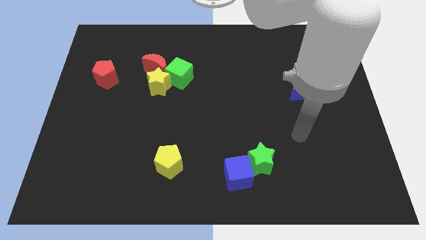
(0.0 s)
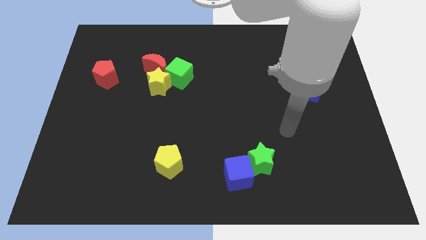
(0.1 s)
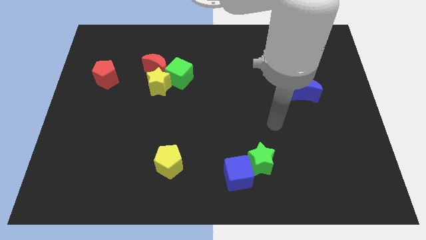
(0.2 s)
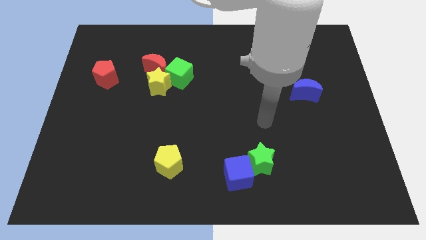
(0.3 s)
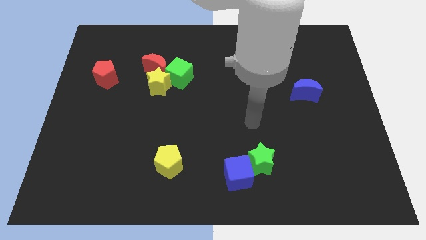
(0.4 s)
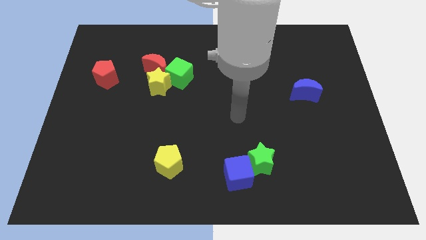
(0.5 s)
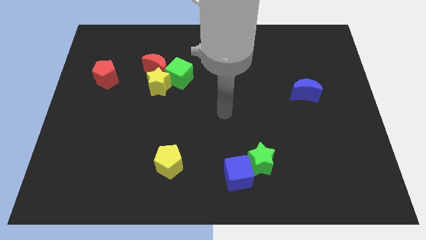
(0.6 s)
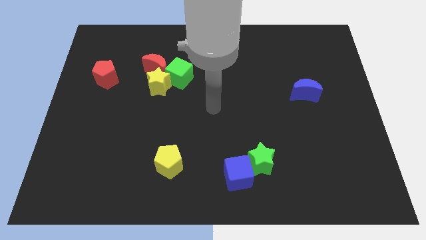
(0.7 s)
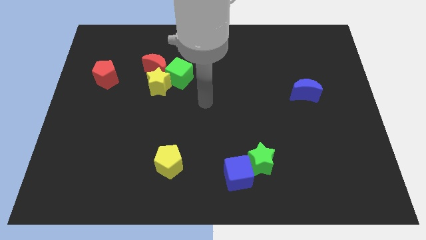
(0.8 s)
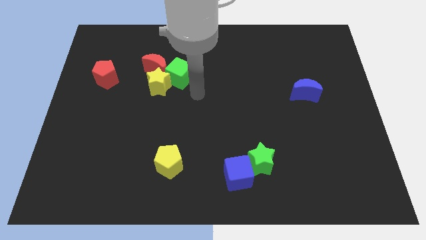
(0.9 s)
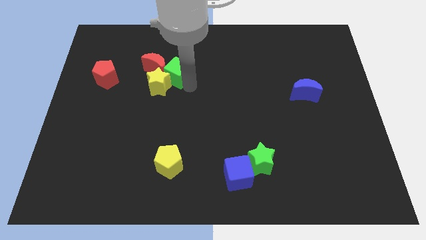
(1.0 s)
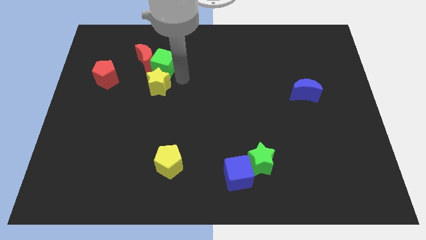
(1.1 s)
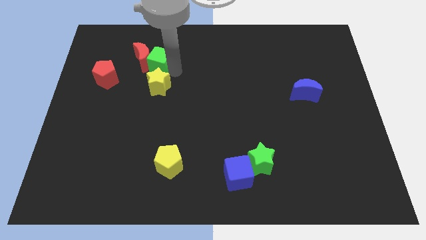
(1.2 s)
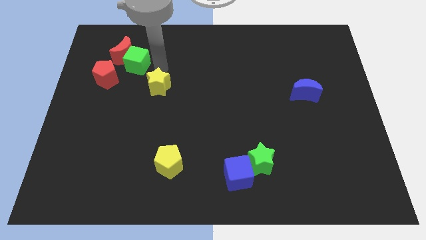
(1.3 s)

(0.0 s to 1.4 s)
separate the yellow star from the green cube and red moon

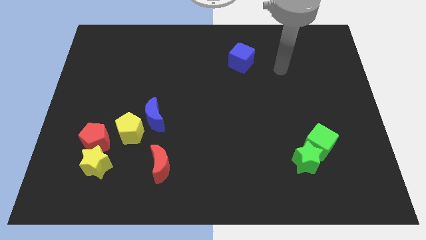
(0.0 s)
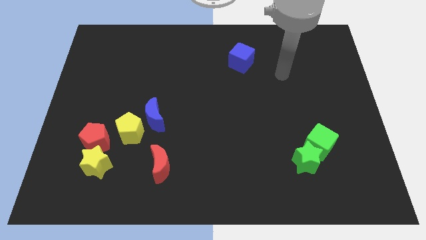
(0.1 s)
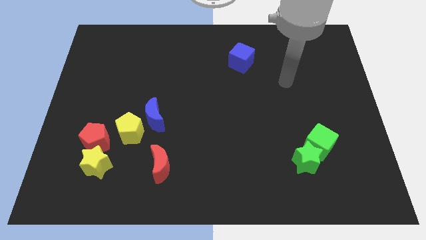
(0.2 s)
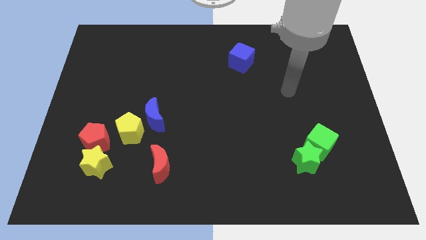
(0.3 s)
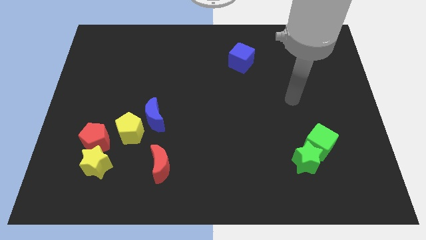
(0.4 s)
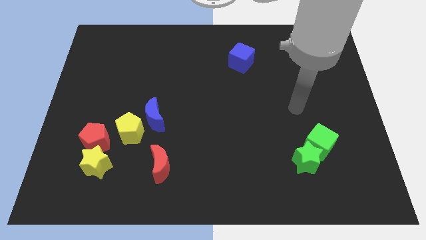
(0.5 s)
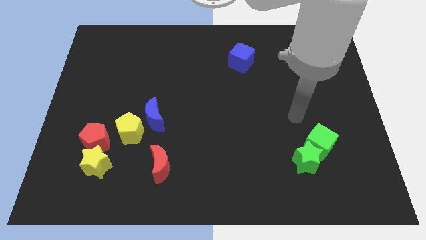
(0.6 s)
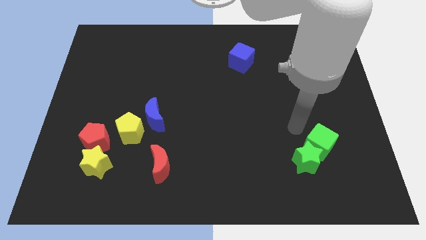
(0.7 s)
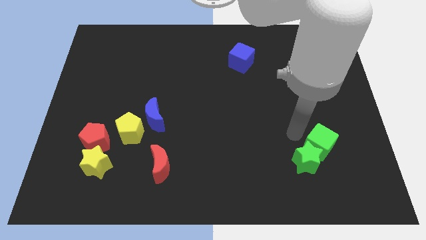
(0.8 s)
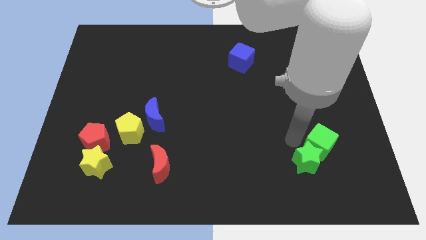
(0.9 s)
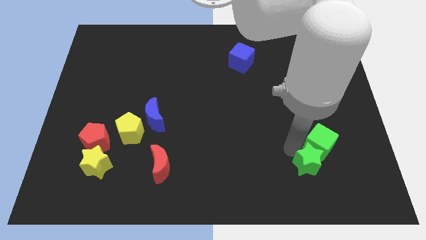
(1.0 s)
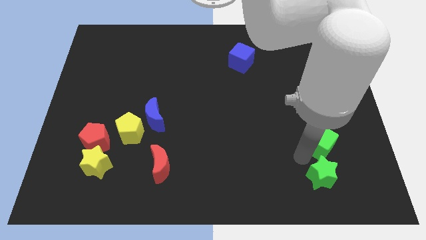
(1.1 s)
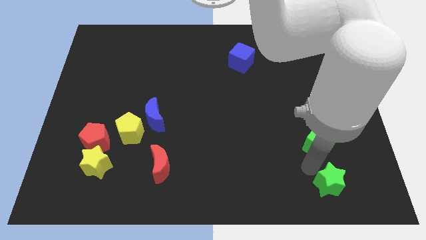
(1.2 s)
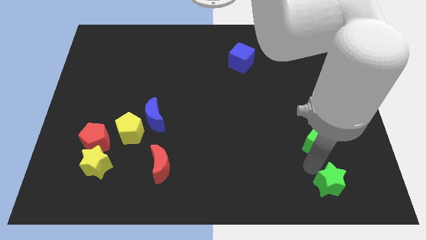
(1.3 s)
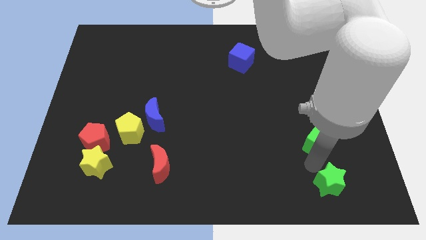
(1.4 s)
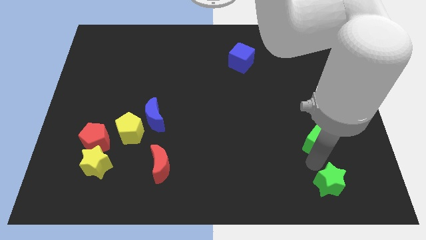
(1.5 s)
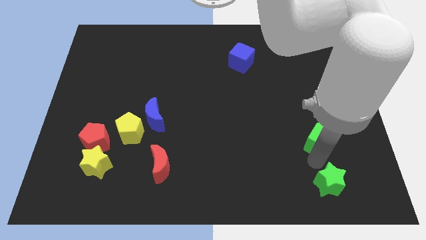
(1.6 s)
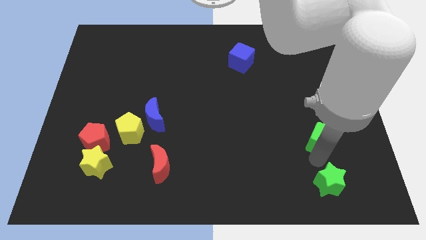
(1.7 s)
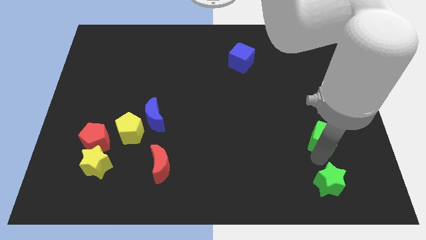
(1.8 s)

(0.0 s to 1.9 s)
pull the green cube apart from the green star

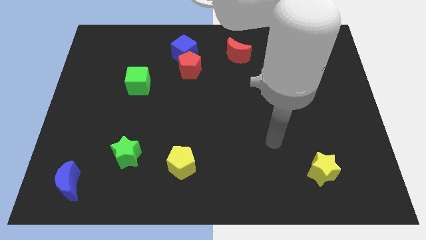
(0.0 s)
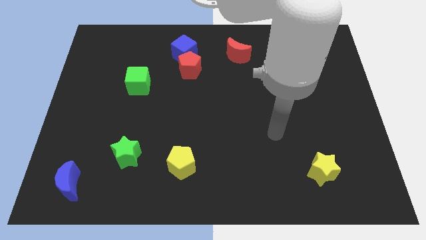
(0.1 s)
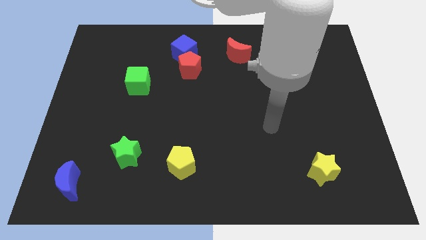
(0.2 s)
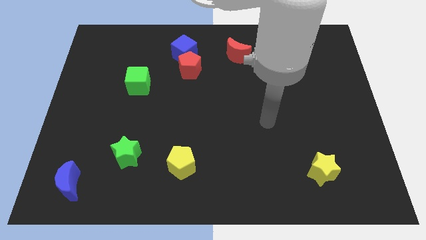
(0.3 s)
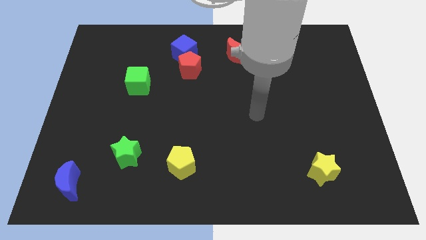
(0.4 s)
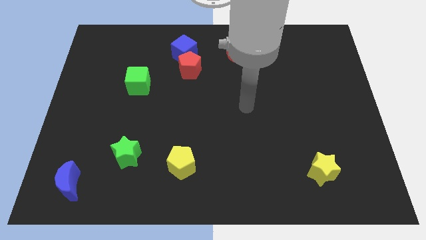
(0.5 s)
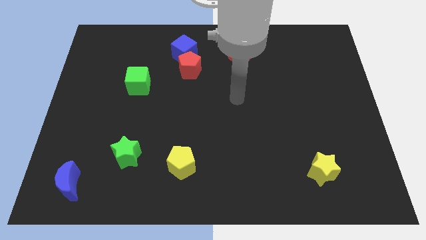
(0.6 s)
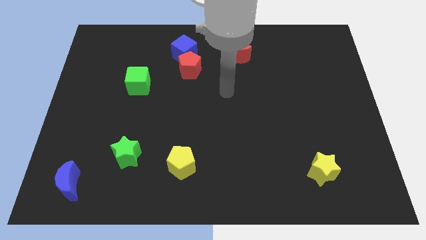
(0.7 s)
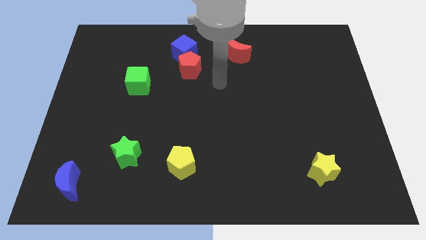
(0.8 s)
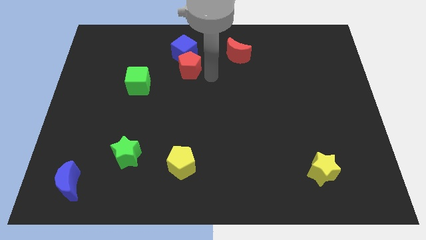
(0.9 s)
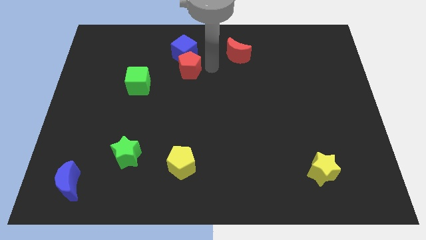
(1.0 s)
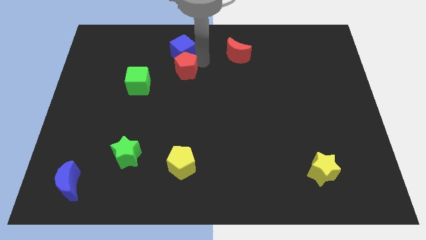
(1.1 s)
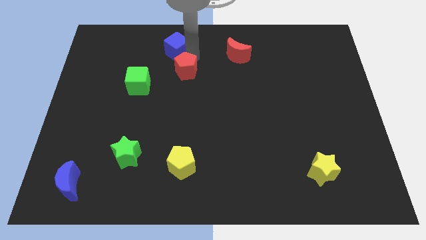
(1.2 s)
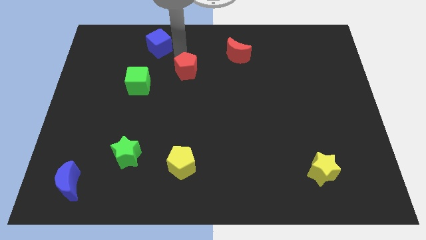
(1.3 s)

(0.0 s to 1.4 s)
pull the red pentagon apart from the blue cube

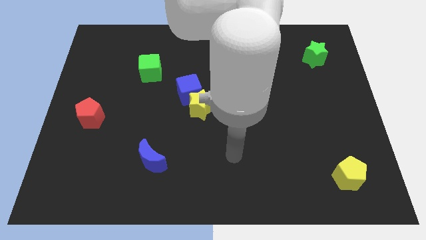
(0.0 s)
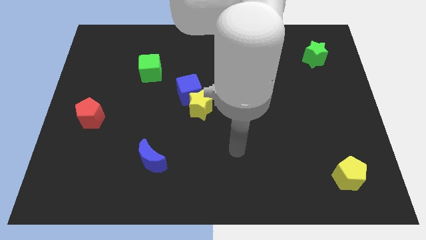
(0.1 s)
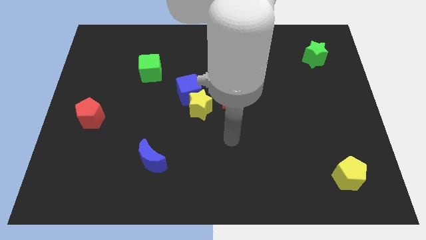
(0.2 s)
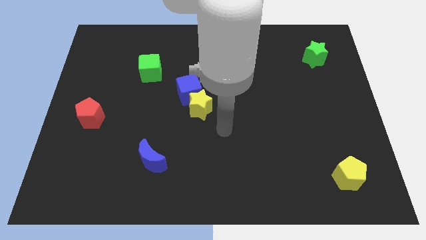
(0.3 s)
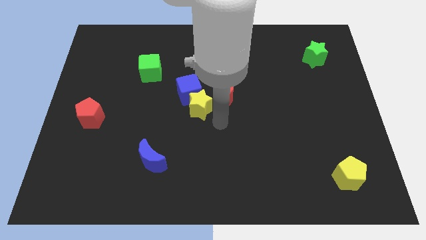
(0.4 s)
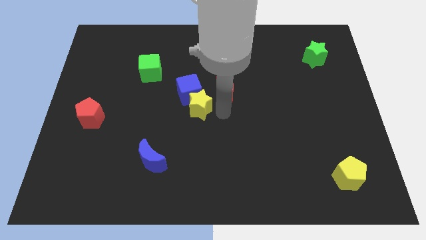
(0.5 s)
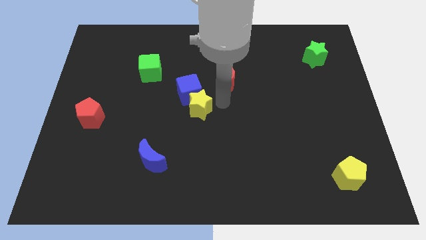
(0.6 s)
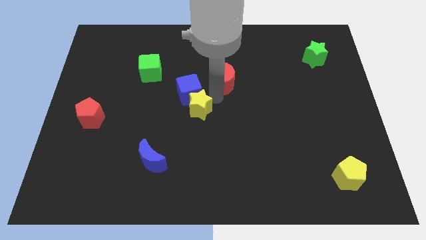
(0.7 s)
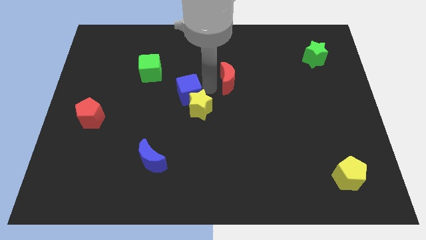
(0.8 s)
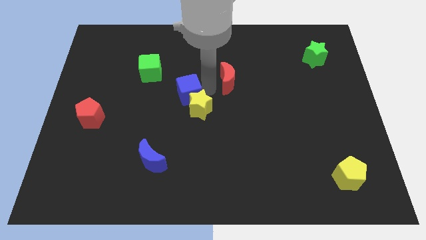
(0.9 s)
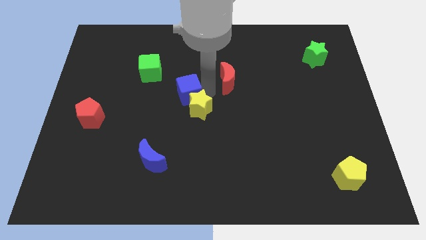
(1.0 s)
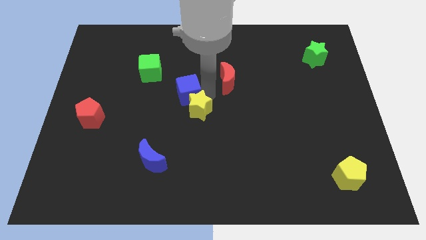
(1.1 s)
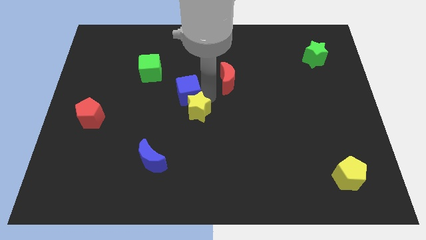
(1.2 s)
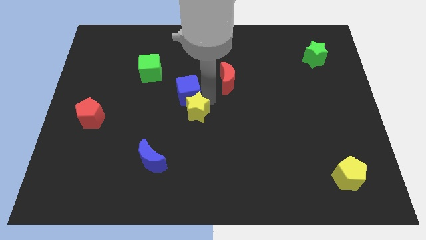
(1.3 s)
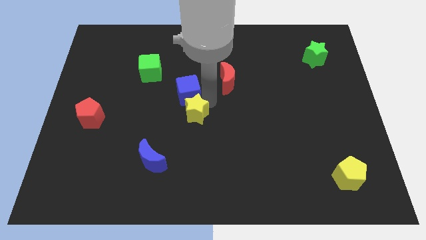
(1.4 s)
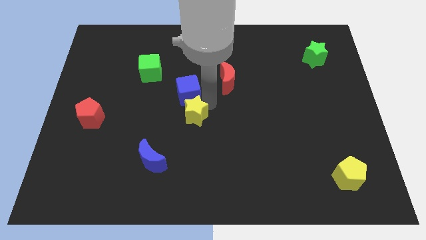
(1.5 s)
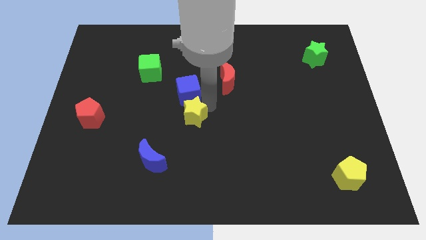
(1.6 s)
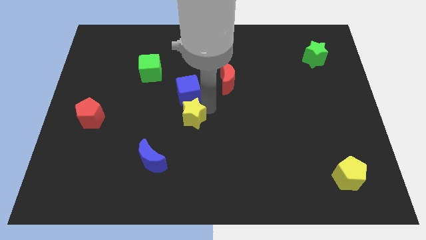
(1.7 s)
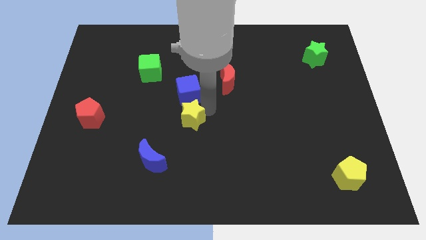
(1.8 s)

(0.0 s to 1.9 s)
pull the yellow star apart from the blue cube and red moon

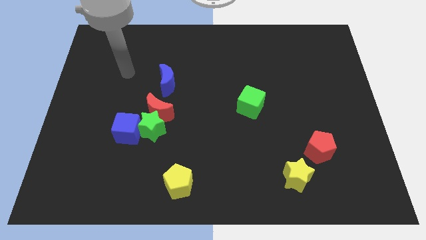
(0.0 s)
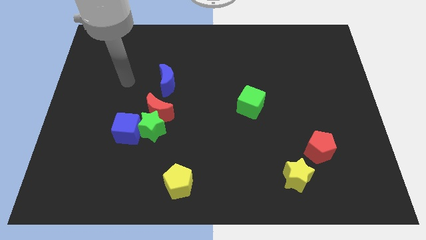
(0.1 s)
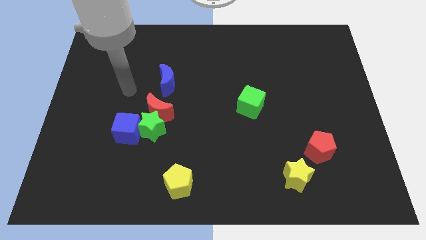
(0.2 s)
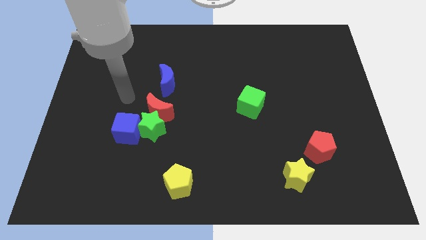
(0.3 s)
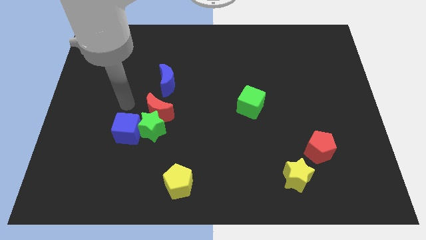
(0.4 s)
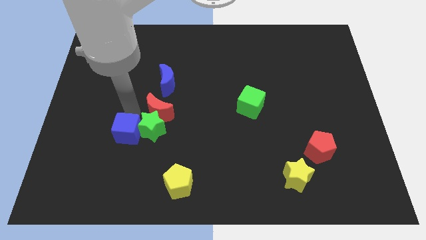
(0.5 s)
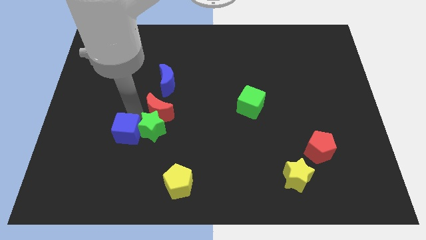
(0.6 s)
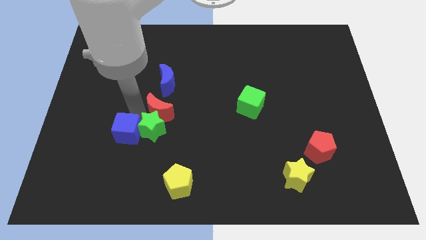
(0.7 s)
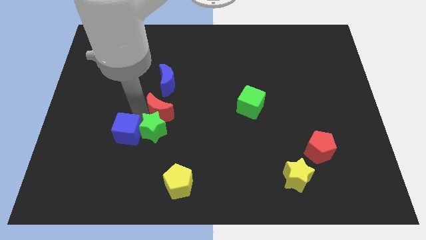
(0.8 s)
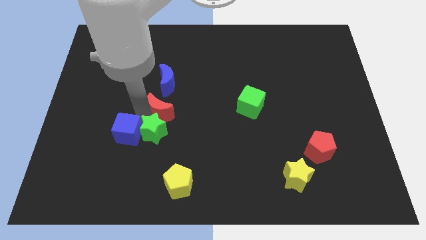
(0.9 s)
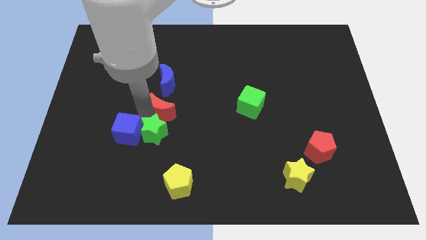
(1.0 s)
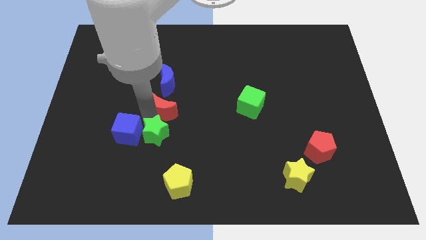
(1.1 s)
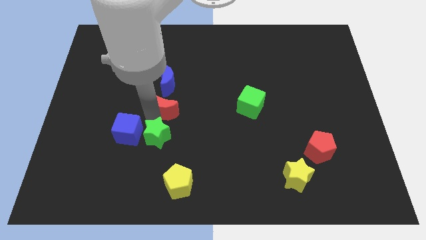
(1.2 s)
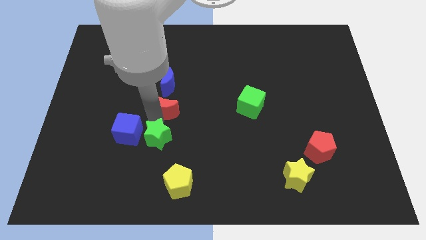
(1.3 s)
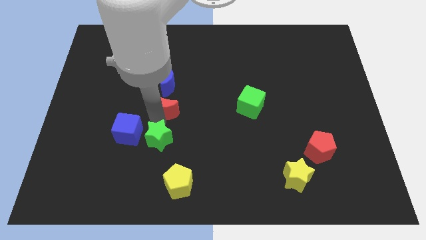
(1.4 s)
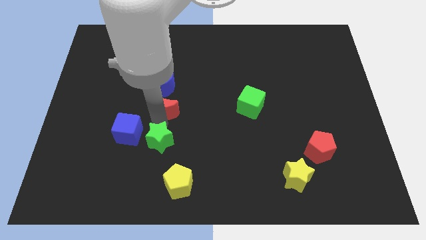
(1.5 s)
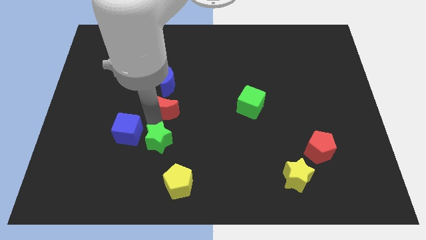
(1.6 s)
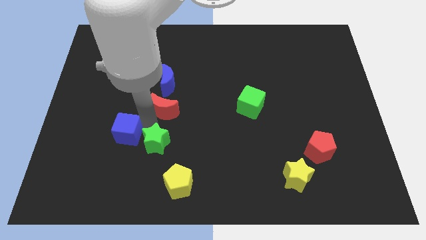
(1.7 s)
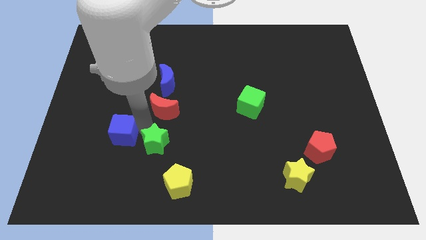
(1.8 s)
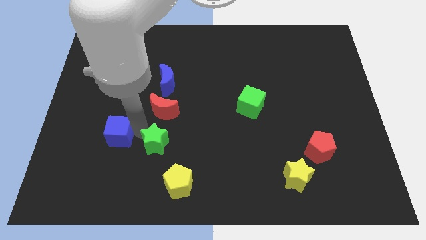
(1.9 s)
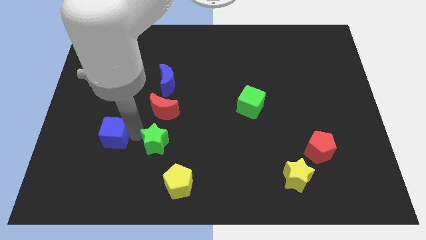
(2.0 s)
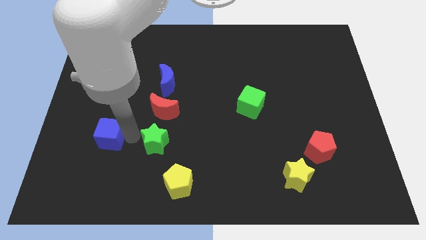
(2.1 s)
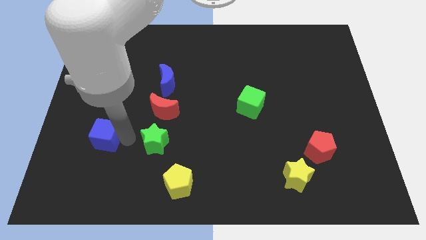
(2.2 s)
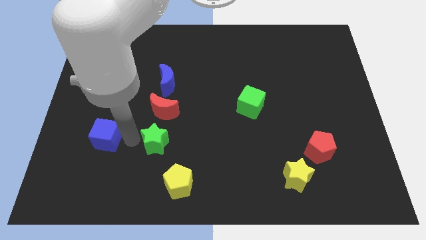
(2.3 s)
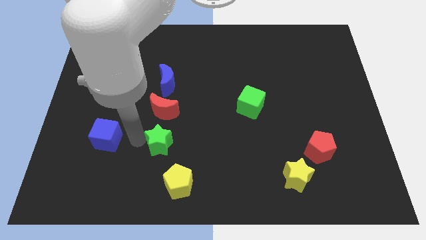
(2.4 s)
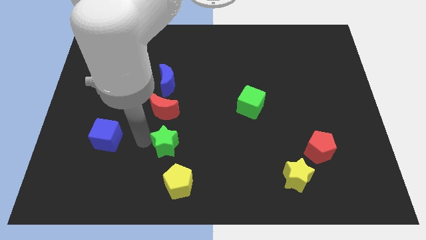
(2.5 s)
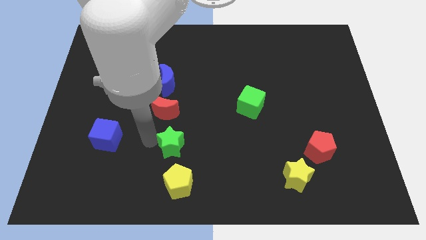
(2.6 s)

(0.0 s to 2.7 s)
pull the green star apart from the red moon and blue cube
